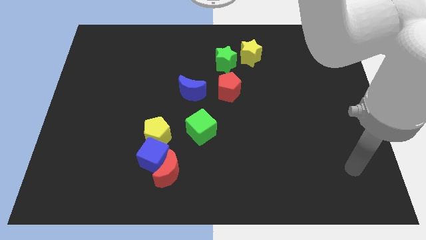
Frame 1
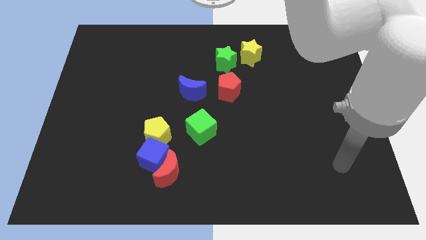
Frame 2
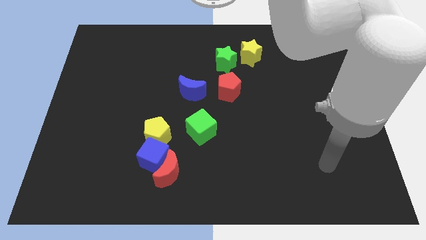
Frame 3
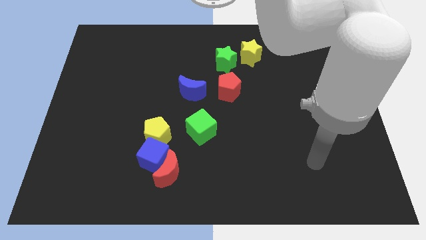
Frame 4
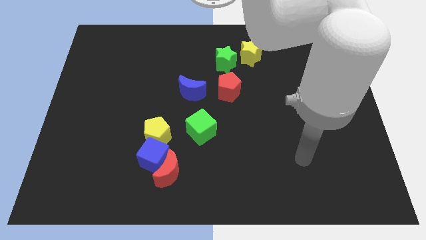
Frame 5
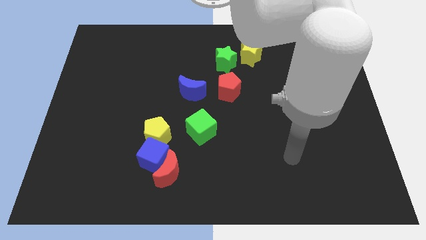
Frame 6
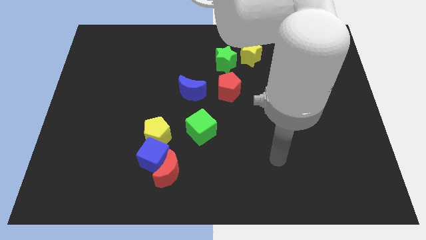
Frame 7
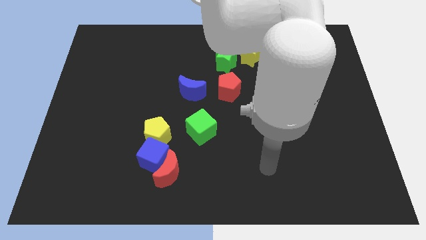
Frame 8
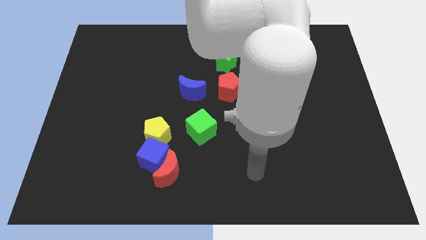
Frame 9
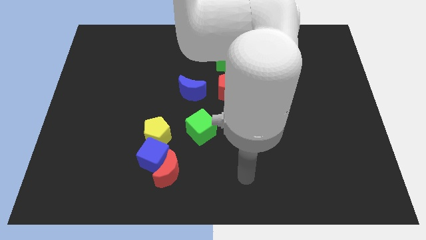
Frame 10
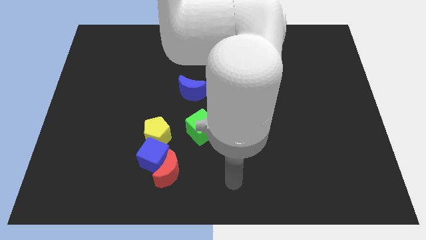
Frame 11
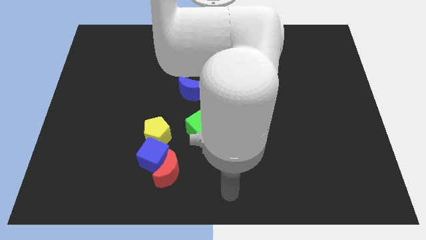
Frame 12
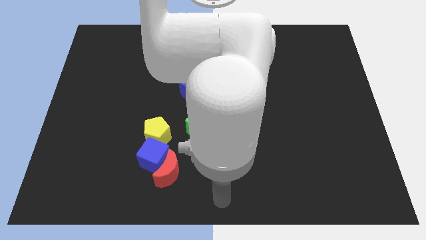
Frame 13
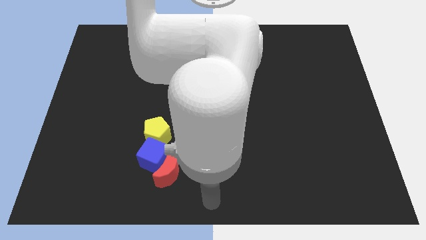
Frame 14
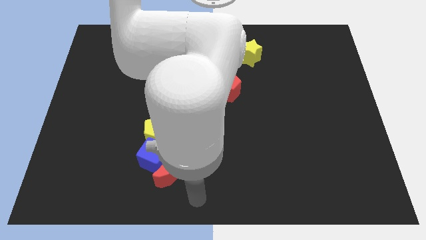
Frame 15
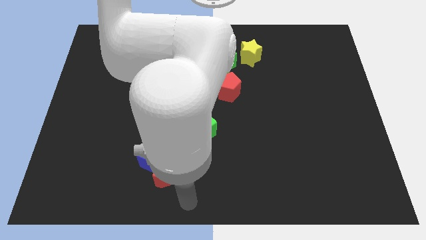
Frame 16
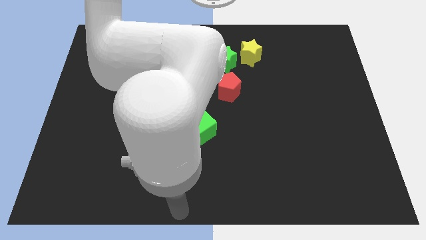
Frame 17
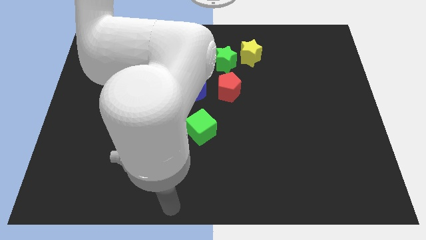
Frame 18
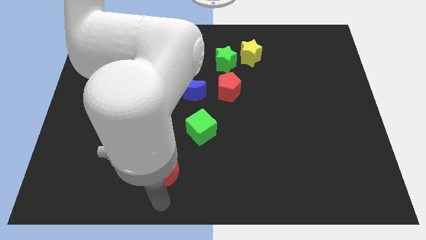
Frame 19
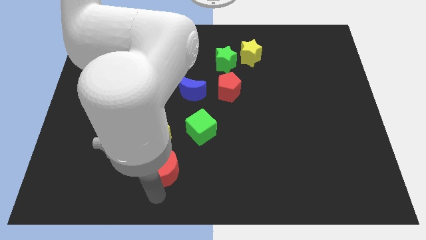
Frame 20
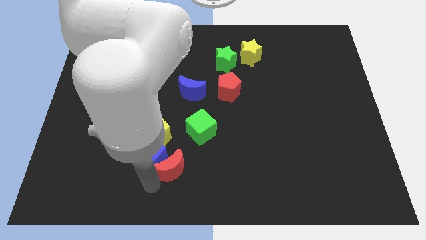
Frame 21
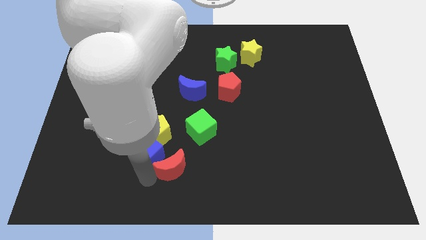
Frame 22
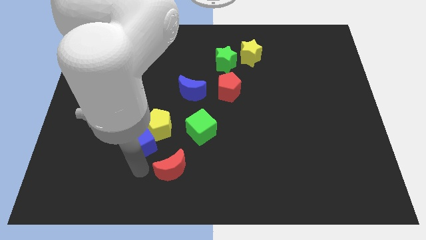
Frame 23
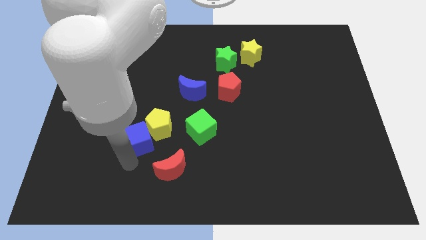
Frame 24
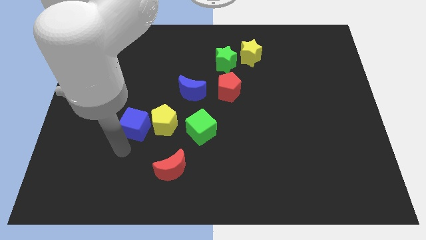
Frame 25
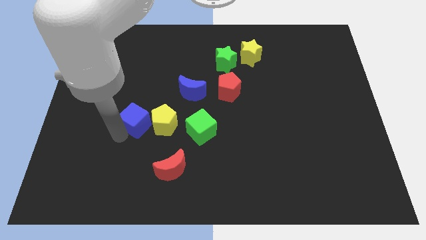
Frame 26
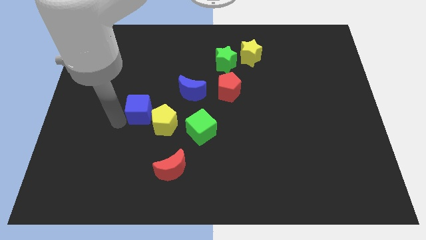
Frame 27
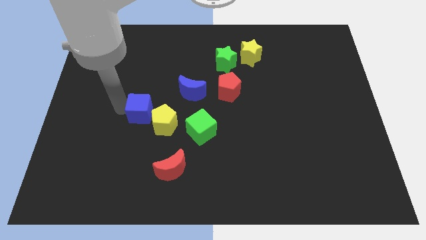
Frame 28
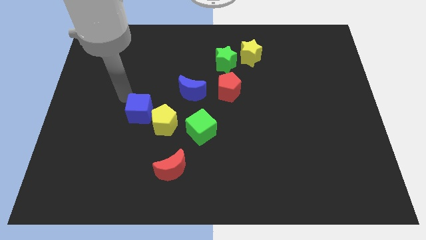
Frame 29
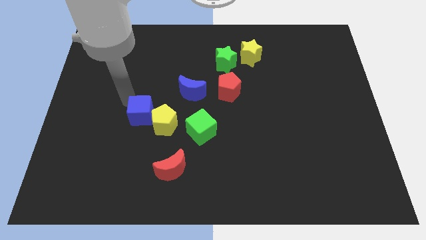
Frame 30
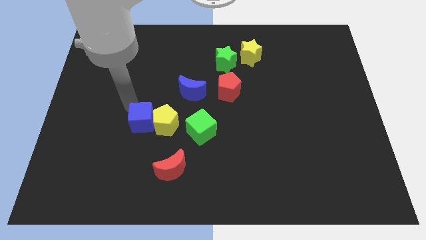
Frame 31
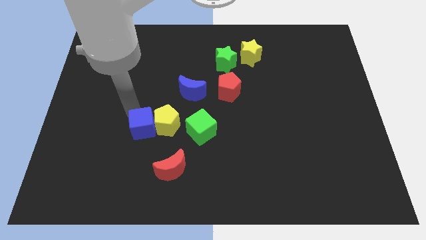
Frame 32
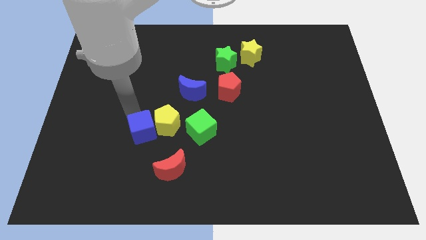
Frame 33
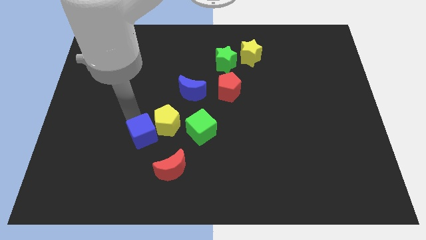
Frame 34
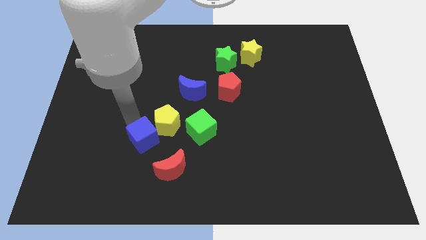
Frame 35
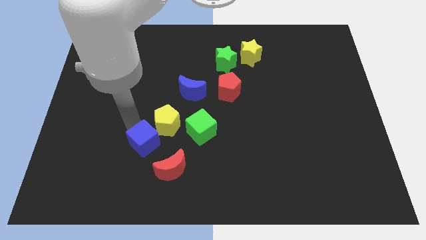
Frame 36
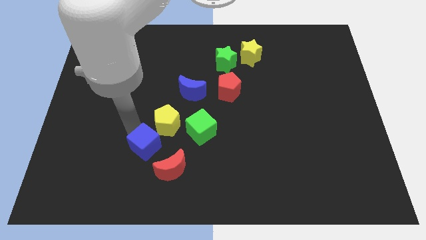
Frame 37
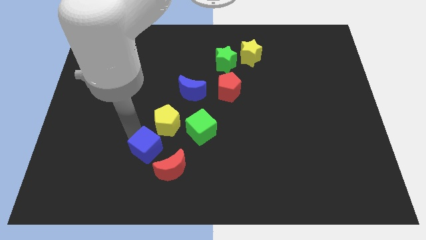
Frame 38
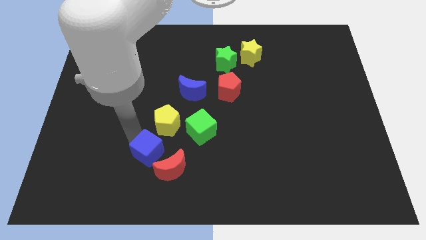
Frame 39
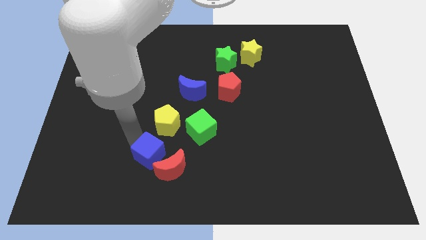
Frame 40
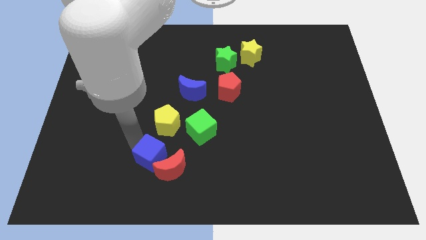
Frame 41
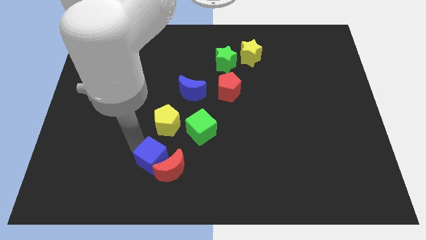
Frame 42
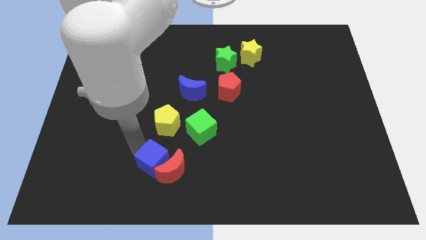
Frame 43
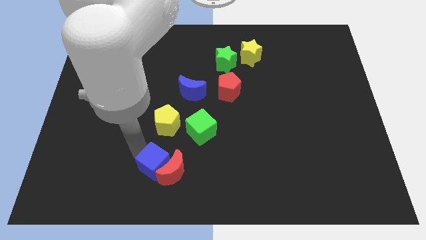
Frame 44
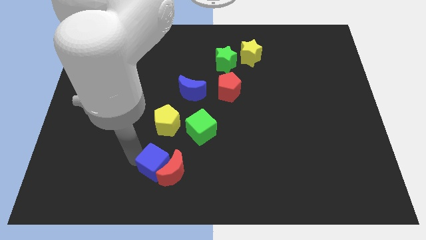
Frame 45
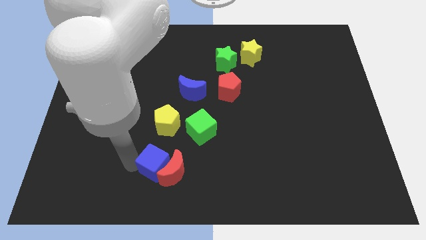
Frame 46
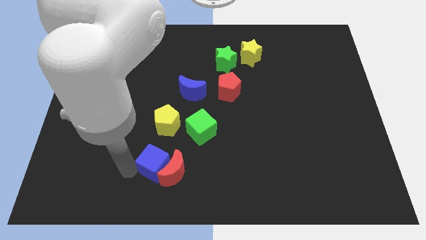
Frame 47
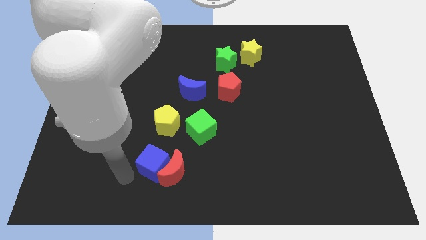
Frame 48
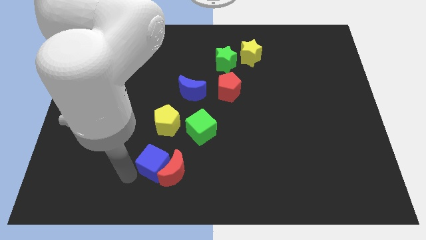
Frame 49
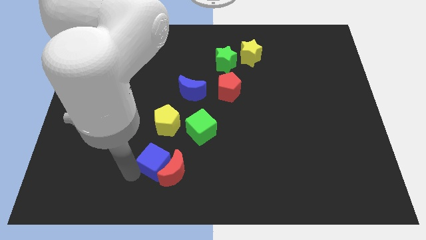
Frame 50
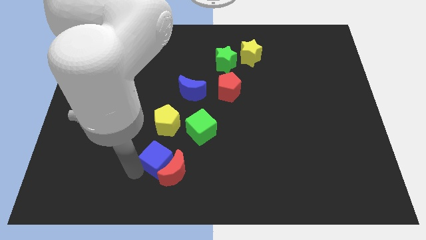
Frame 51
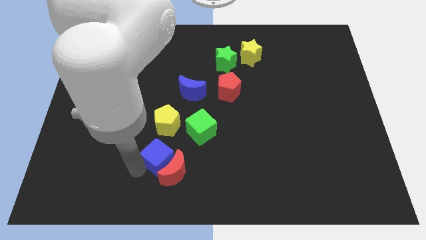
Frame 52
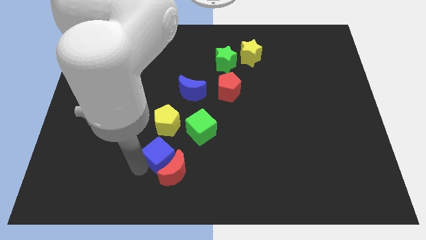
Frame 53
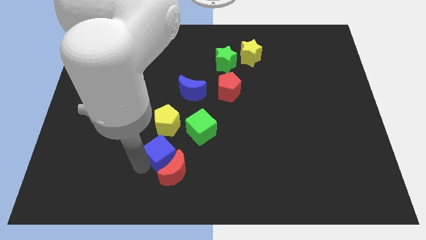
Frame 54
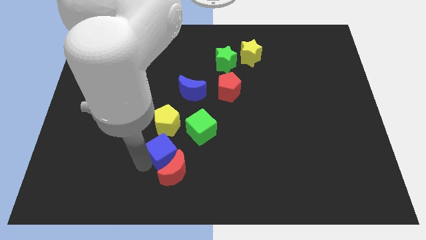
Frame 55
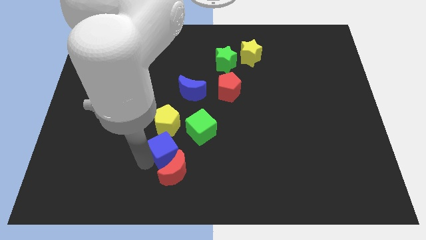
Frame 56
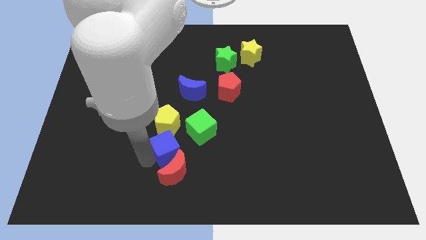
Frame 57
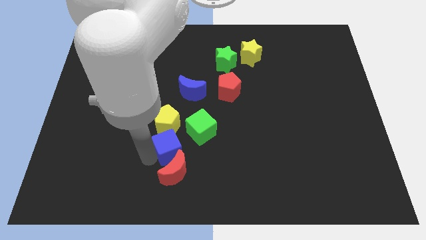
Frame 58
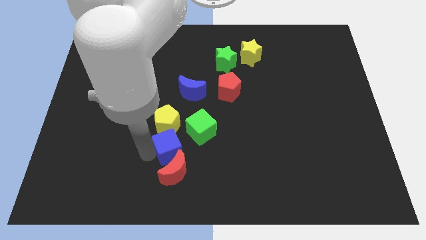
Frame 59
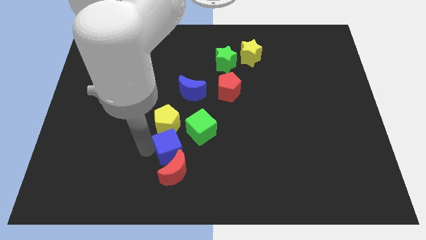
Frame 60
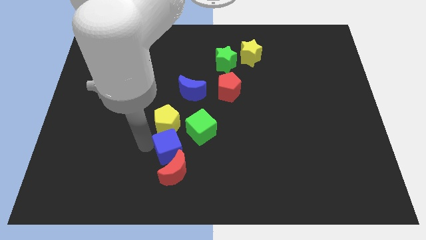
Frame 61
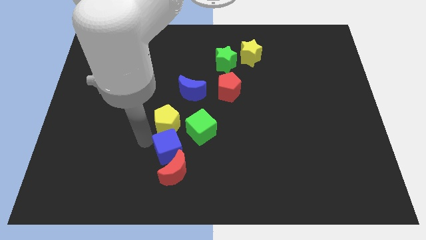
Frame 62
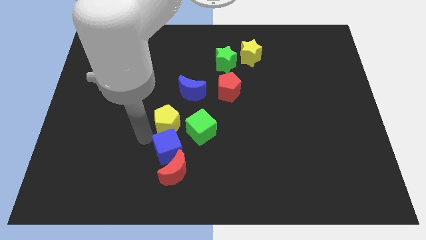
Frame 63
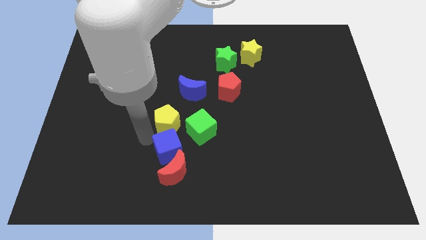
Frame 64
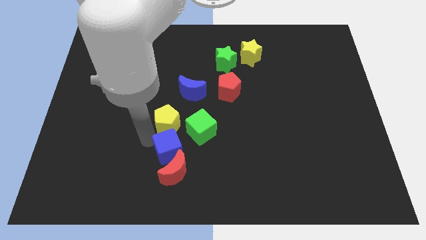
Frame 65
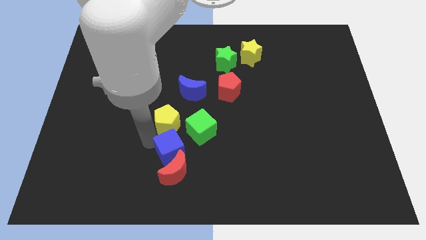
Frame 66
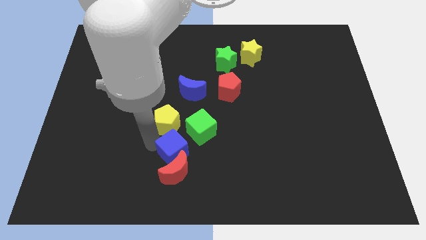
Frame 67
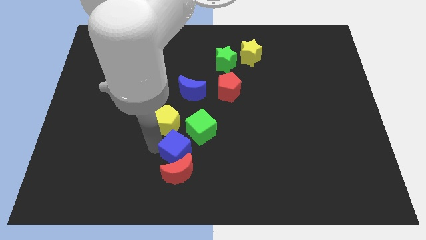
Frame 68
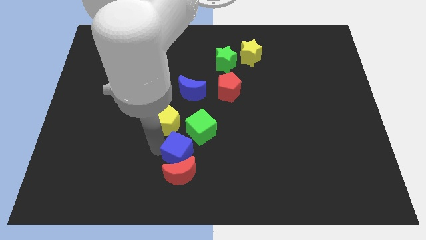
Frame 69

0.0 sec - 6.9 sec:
push the blue cube to the bottom side of the green cube
